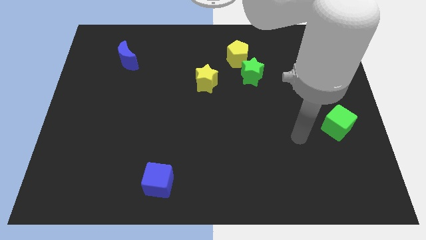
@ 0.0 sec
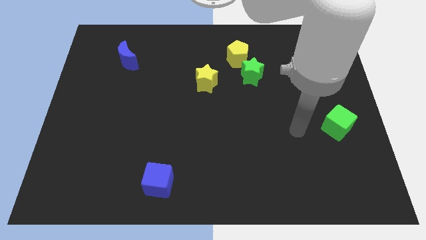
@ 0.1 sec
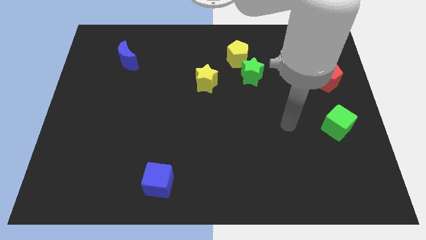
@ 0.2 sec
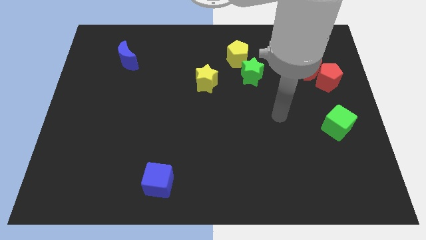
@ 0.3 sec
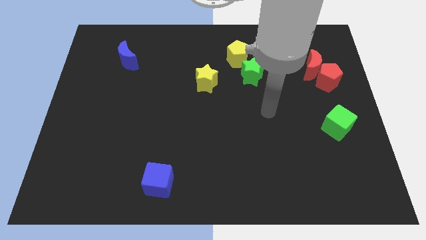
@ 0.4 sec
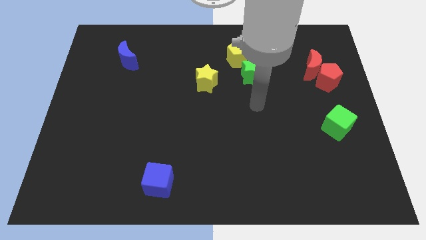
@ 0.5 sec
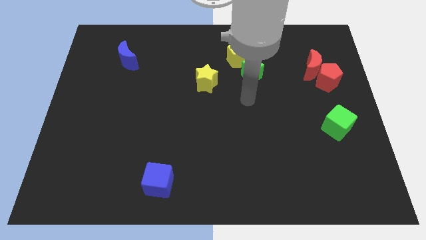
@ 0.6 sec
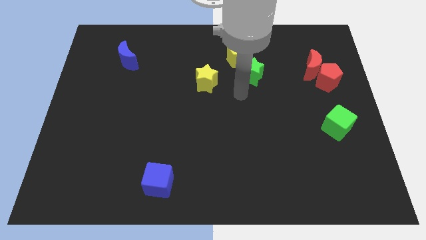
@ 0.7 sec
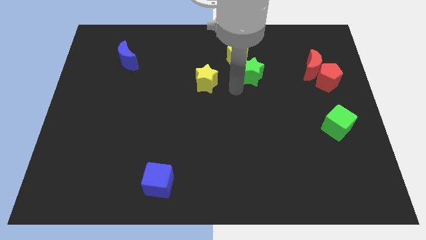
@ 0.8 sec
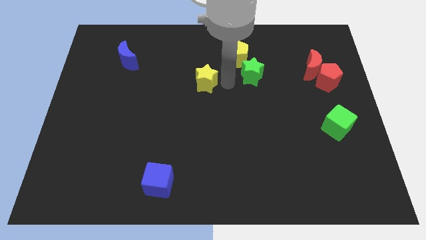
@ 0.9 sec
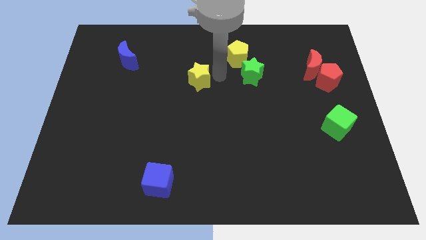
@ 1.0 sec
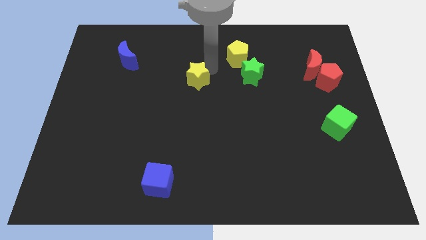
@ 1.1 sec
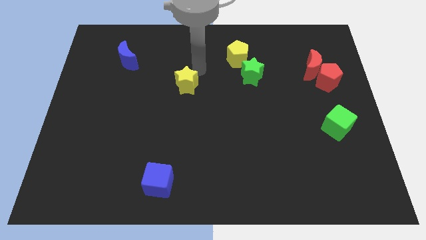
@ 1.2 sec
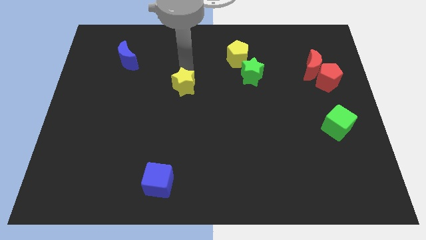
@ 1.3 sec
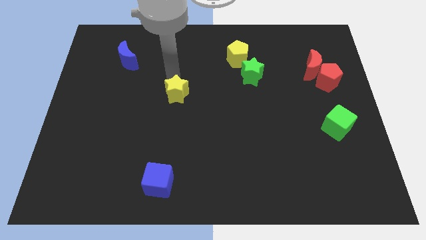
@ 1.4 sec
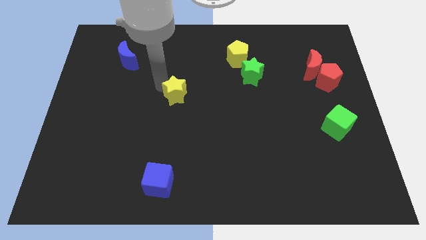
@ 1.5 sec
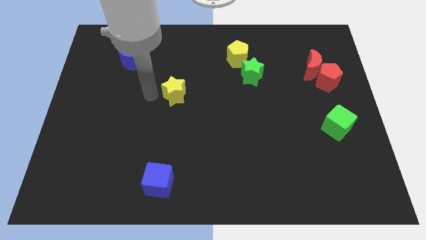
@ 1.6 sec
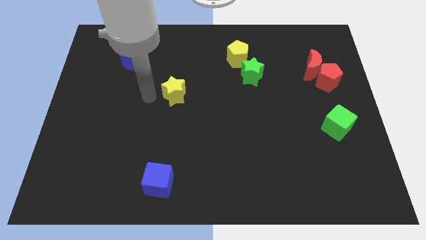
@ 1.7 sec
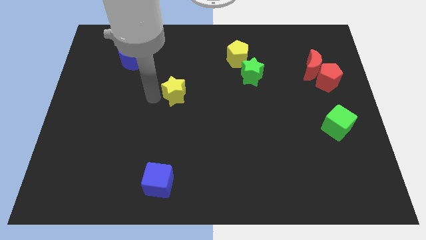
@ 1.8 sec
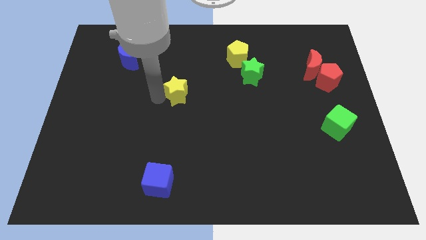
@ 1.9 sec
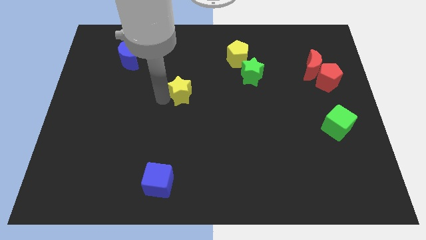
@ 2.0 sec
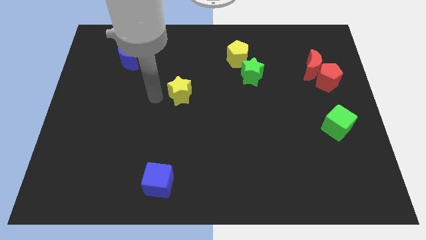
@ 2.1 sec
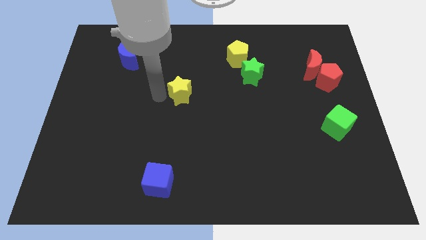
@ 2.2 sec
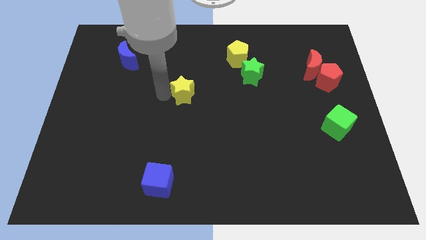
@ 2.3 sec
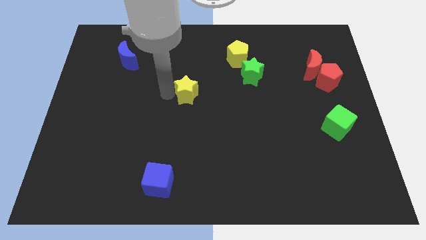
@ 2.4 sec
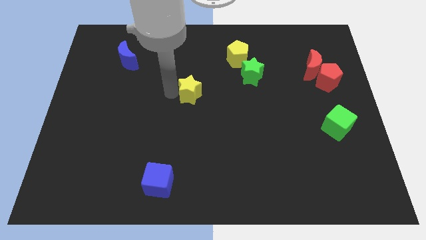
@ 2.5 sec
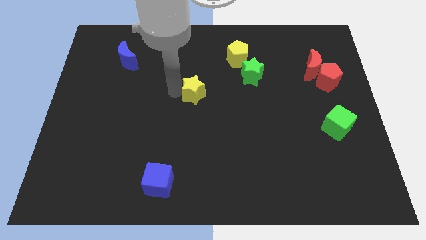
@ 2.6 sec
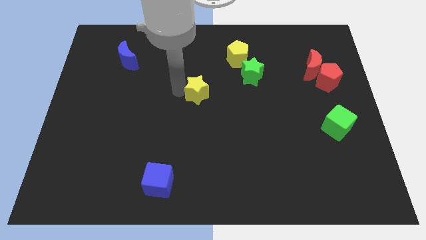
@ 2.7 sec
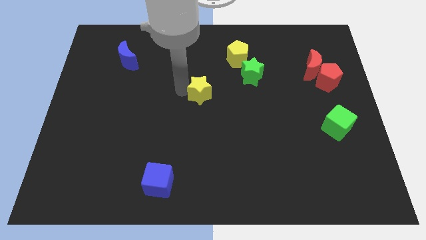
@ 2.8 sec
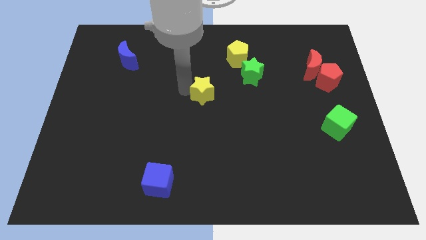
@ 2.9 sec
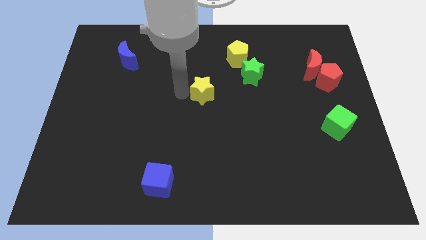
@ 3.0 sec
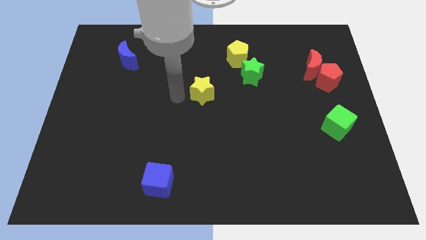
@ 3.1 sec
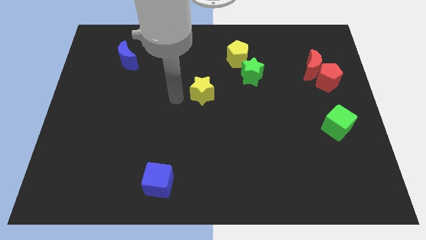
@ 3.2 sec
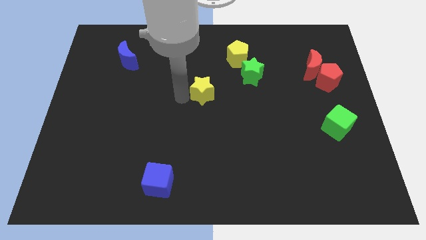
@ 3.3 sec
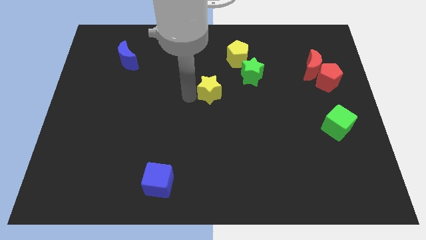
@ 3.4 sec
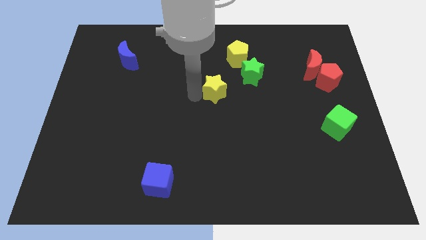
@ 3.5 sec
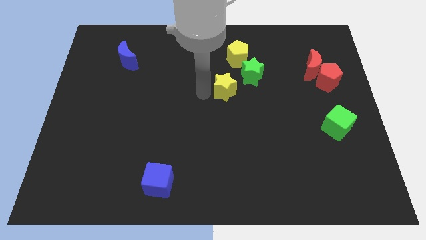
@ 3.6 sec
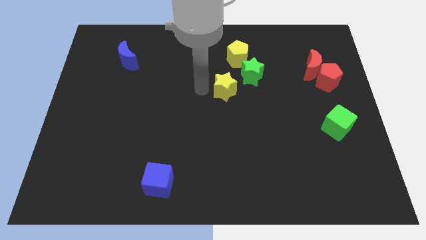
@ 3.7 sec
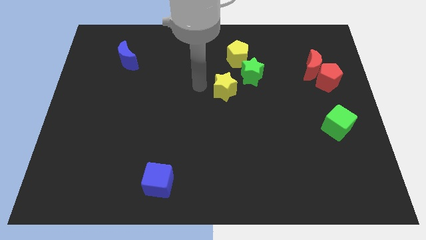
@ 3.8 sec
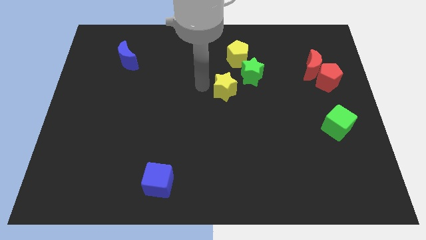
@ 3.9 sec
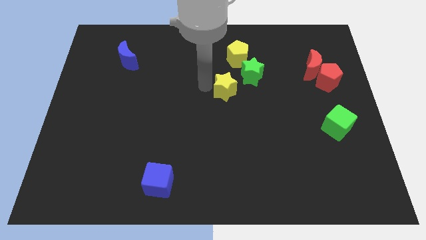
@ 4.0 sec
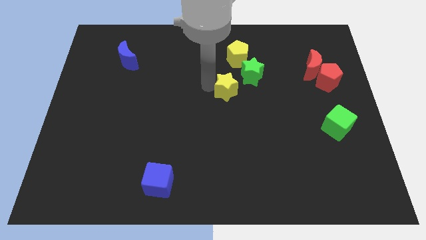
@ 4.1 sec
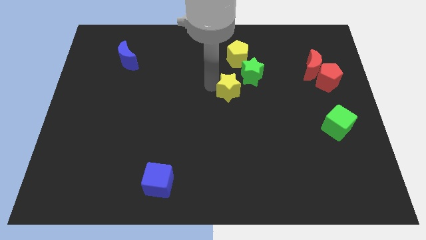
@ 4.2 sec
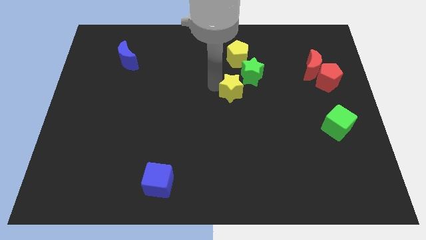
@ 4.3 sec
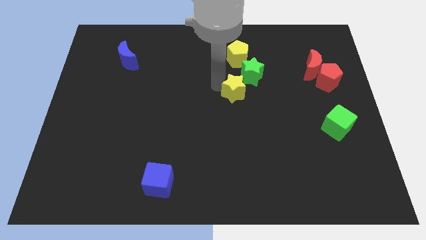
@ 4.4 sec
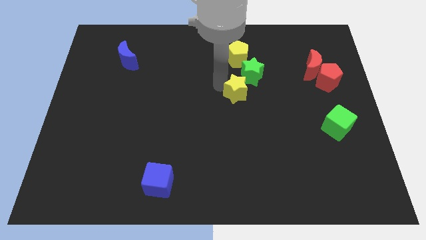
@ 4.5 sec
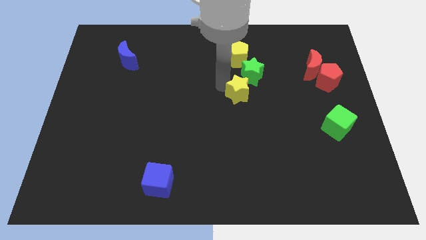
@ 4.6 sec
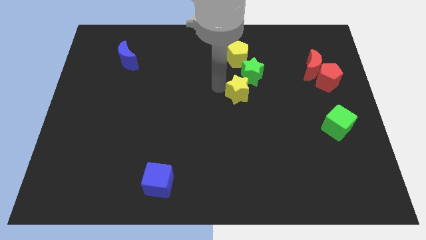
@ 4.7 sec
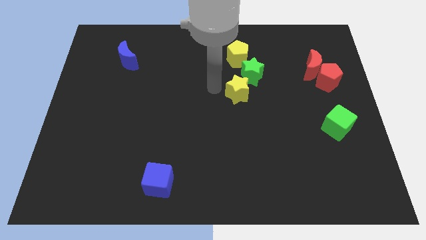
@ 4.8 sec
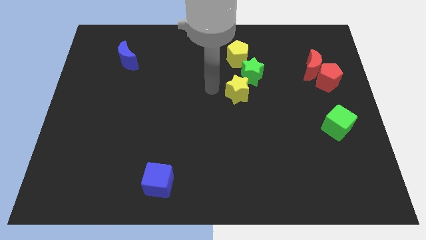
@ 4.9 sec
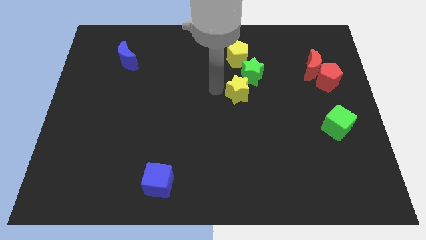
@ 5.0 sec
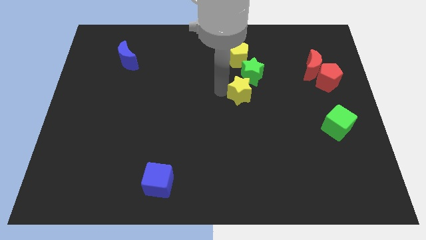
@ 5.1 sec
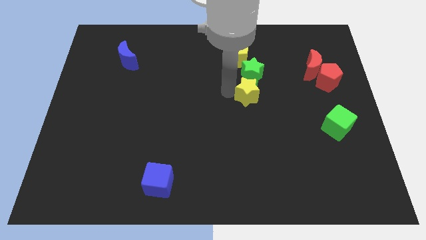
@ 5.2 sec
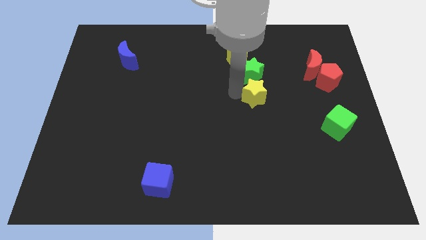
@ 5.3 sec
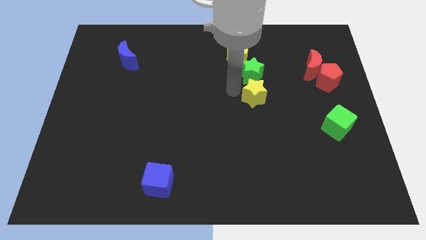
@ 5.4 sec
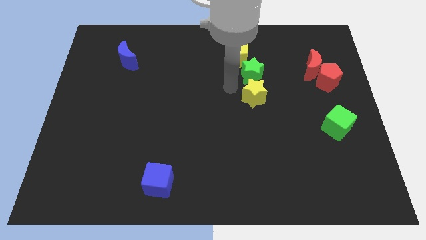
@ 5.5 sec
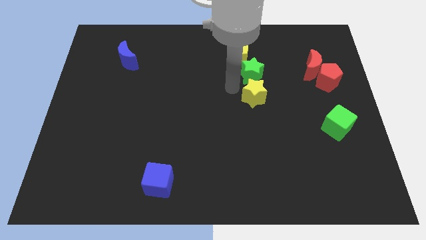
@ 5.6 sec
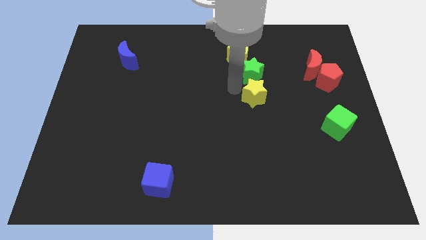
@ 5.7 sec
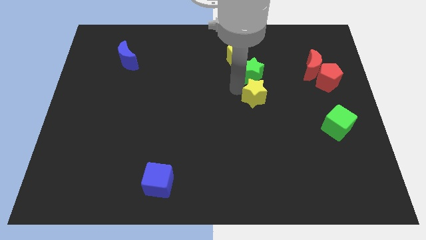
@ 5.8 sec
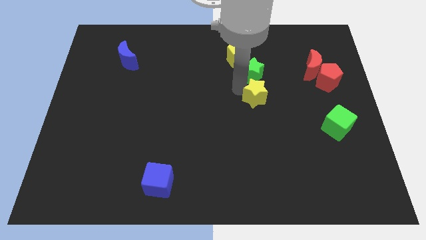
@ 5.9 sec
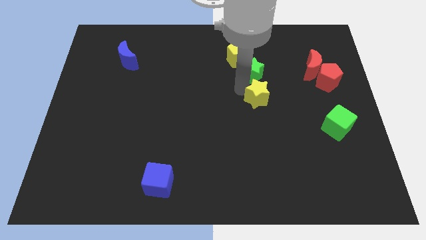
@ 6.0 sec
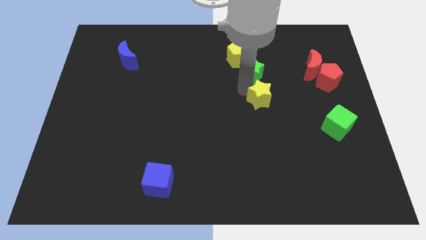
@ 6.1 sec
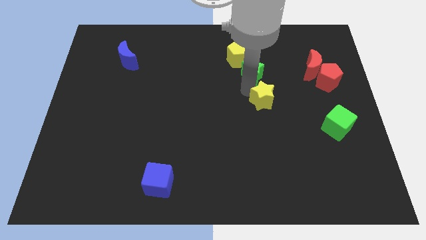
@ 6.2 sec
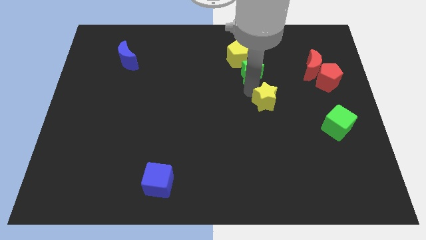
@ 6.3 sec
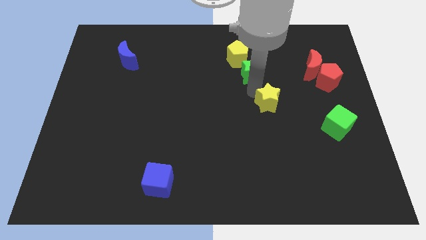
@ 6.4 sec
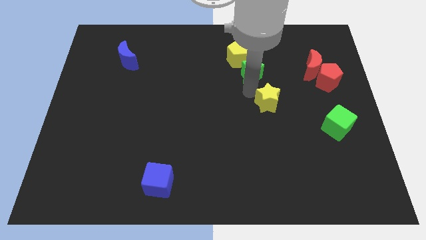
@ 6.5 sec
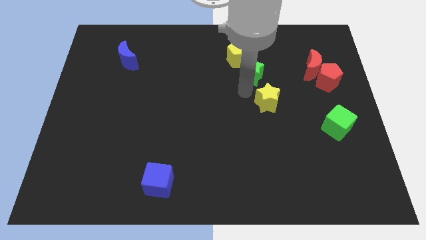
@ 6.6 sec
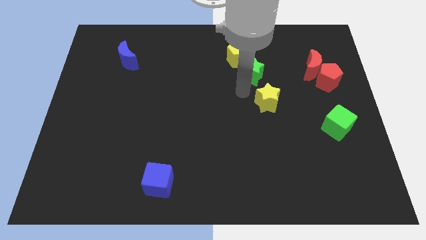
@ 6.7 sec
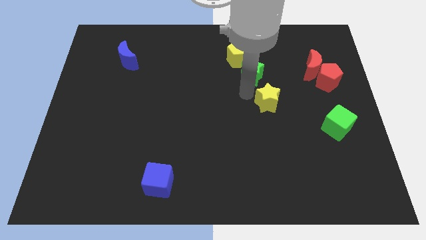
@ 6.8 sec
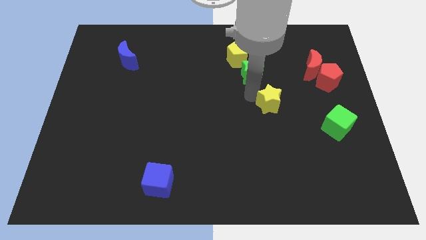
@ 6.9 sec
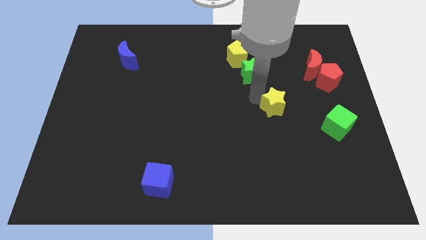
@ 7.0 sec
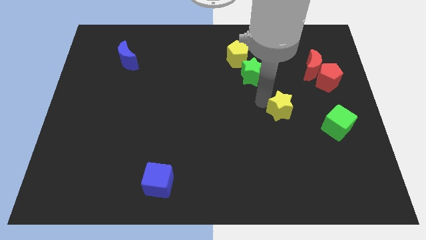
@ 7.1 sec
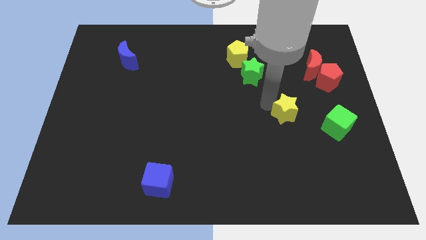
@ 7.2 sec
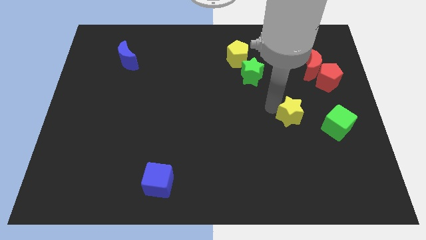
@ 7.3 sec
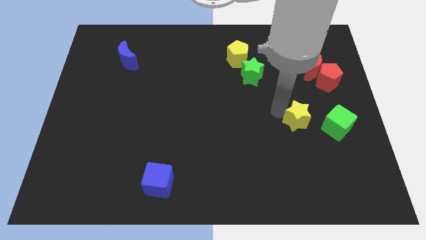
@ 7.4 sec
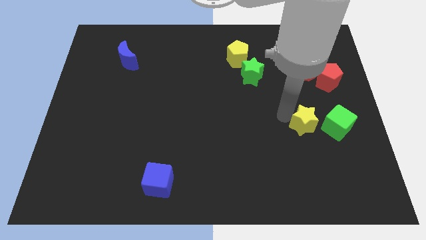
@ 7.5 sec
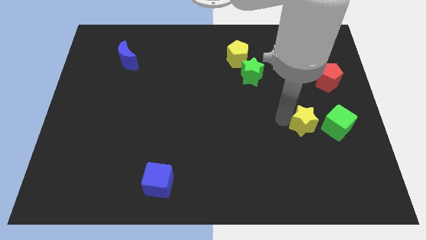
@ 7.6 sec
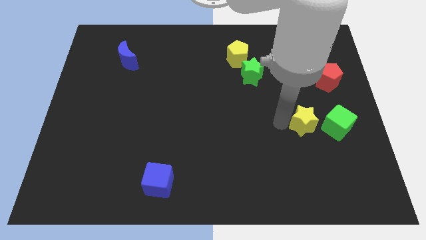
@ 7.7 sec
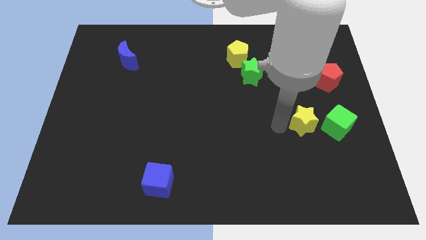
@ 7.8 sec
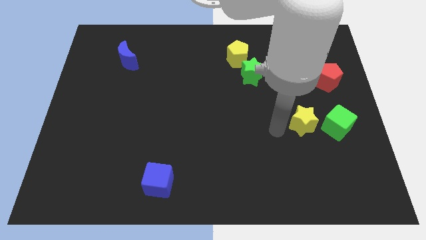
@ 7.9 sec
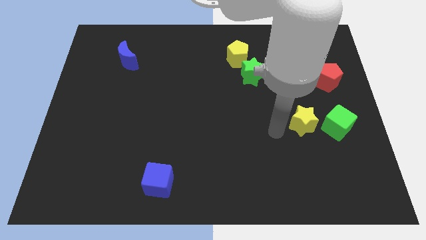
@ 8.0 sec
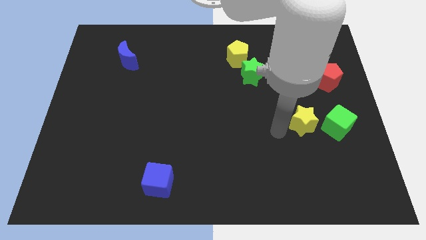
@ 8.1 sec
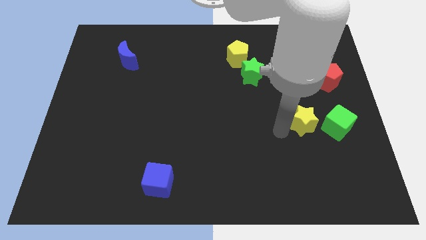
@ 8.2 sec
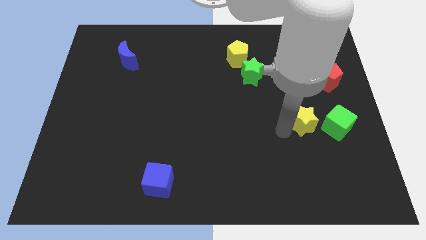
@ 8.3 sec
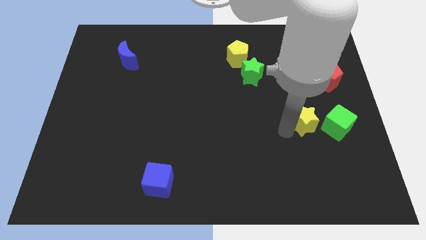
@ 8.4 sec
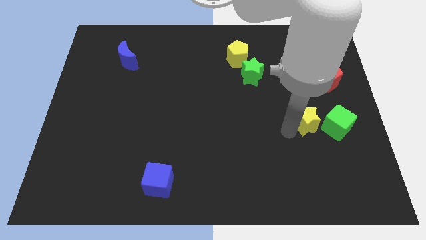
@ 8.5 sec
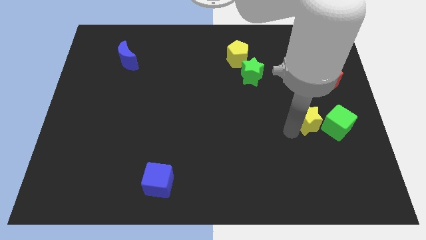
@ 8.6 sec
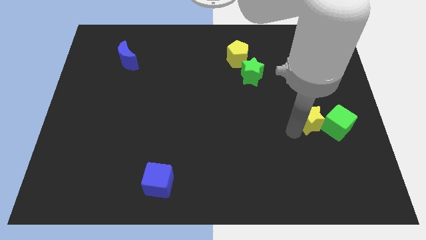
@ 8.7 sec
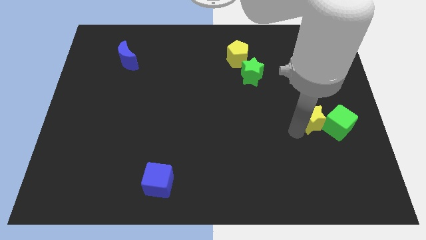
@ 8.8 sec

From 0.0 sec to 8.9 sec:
move the yellow star close to the green cube
